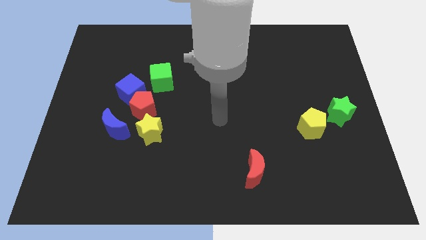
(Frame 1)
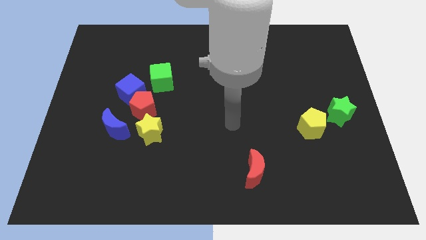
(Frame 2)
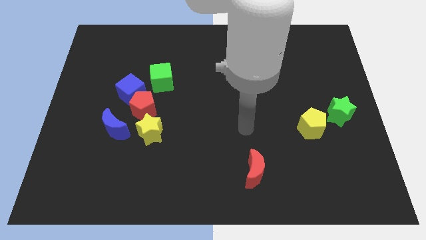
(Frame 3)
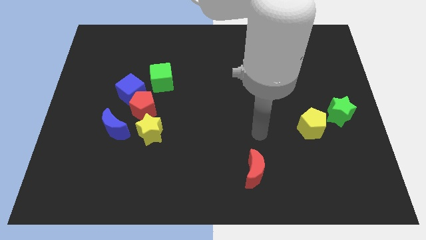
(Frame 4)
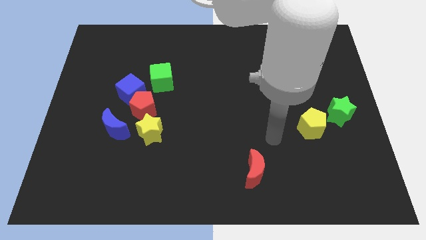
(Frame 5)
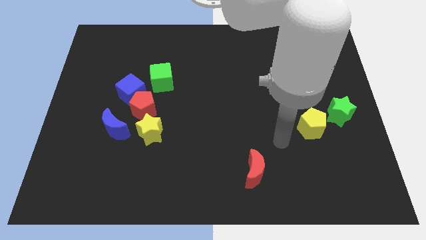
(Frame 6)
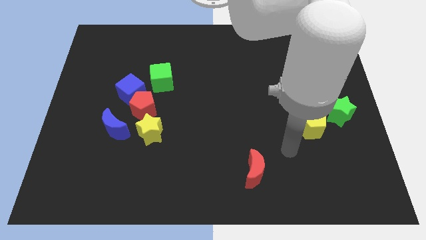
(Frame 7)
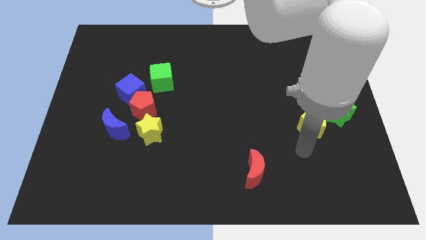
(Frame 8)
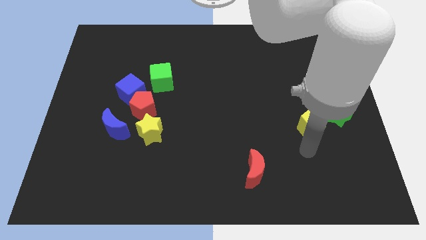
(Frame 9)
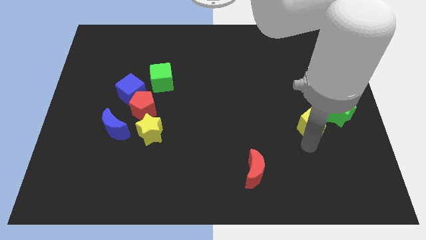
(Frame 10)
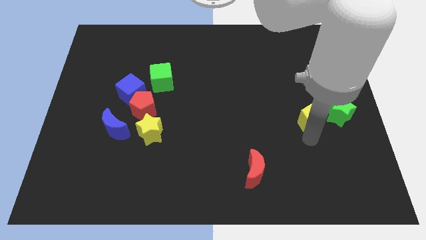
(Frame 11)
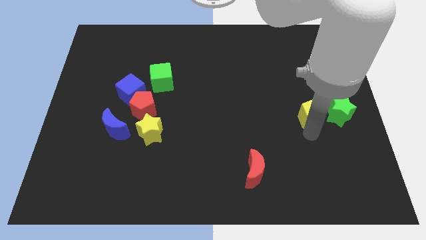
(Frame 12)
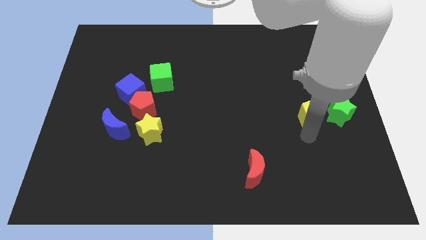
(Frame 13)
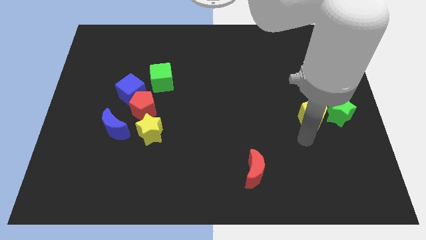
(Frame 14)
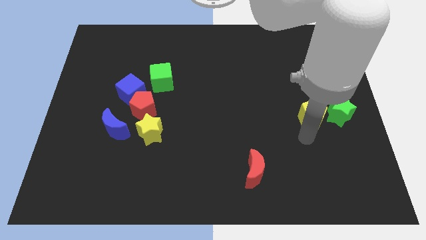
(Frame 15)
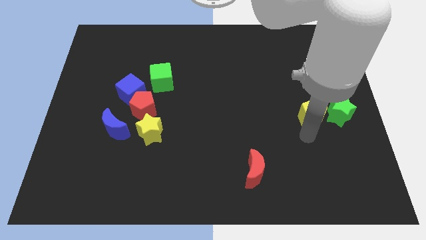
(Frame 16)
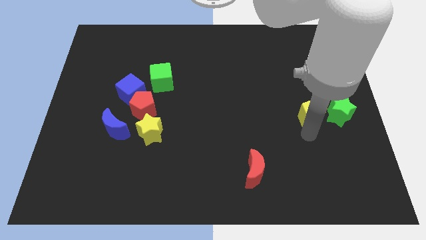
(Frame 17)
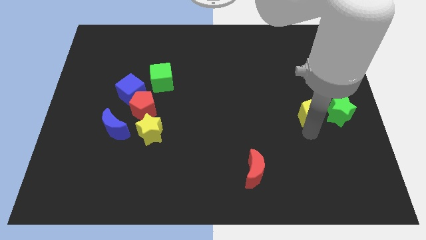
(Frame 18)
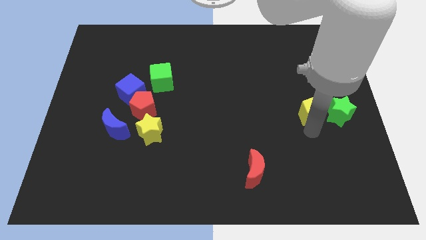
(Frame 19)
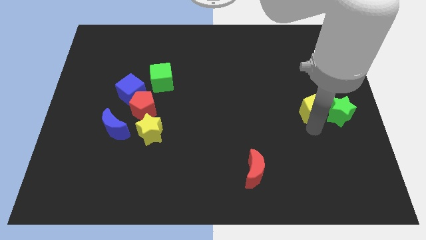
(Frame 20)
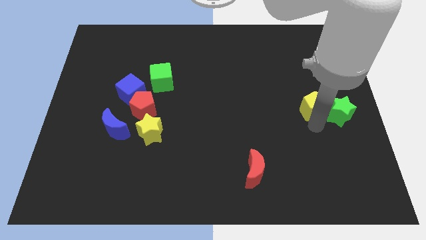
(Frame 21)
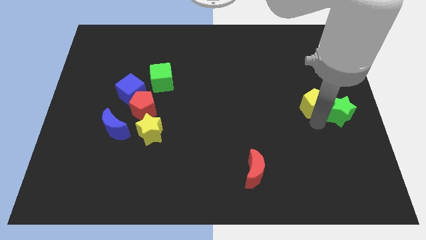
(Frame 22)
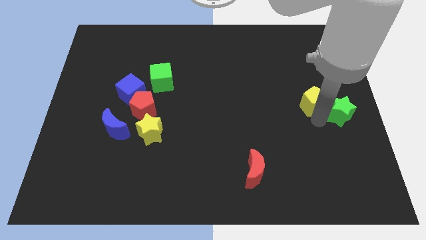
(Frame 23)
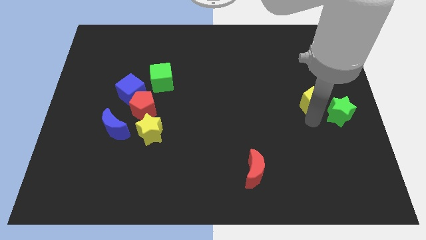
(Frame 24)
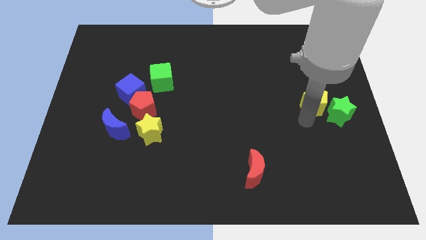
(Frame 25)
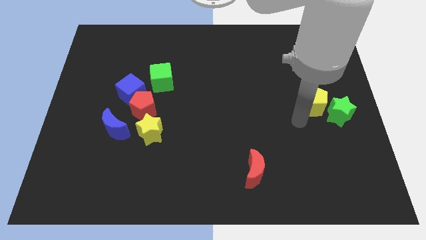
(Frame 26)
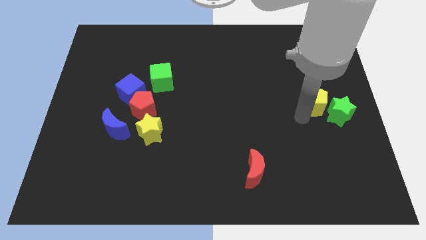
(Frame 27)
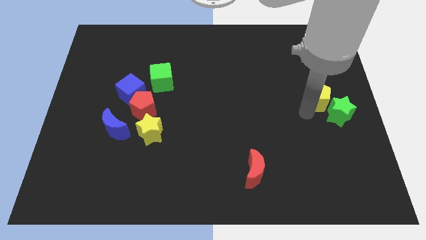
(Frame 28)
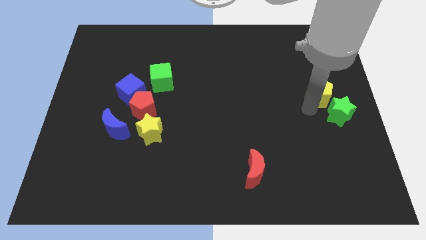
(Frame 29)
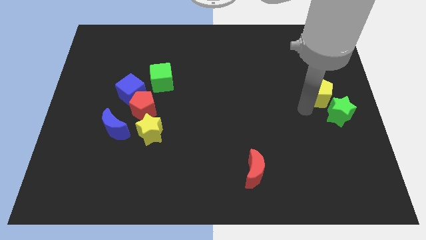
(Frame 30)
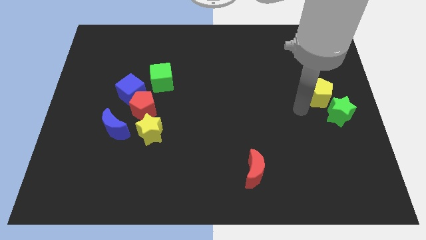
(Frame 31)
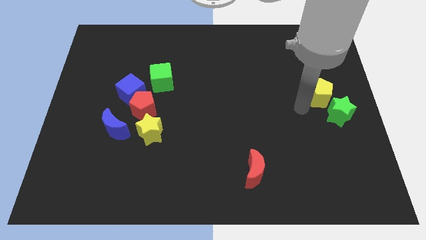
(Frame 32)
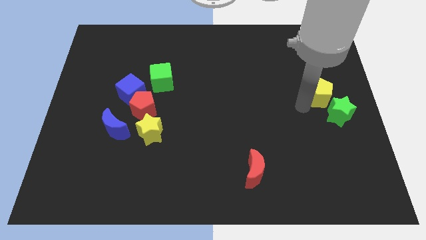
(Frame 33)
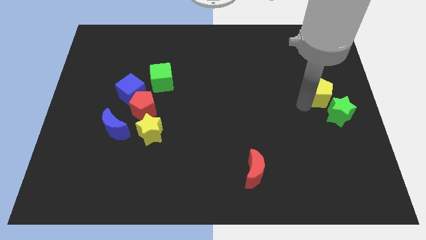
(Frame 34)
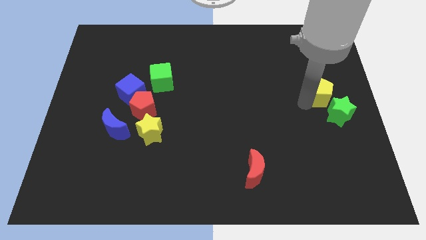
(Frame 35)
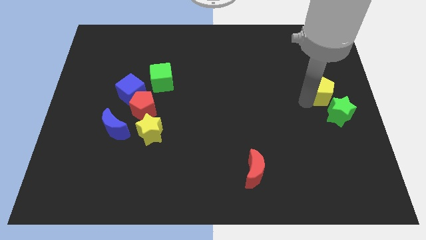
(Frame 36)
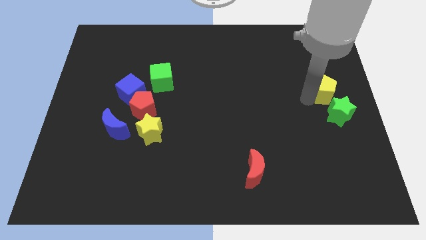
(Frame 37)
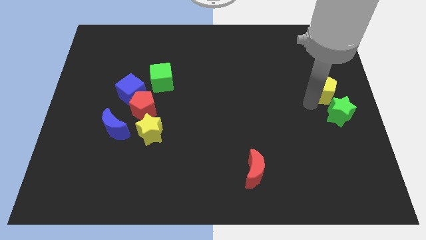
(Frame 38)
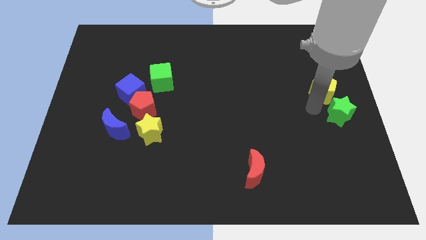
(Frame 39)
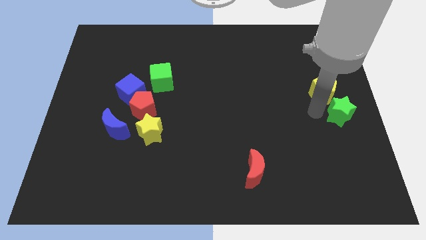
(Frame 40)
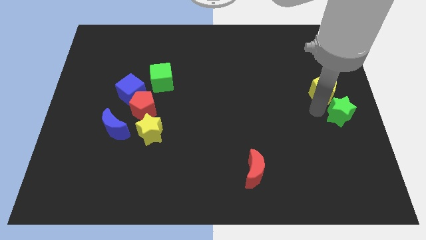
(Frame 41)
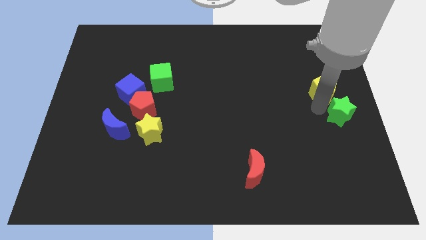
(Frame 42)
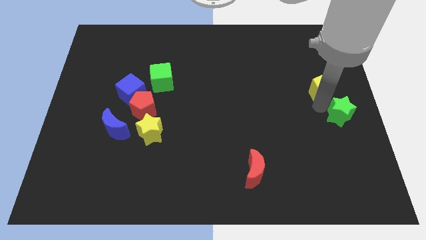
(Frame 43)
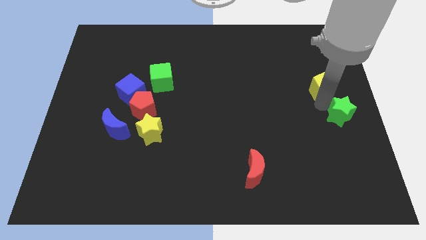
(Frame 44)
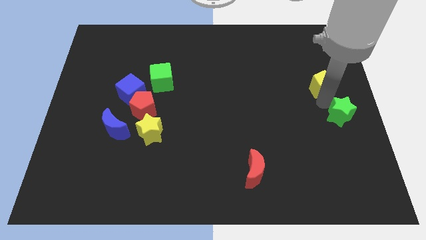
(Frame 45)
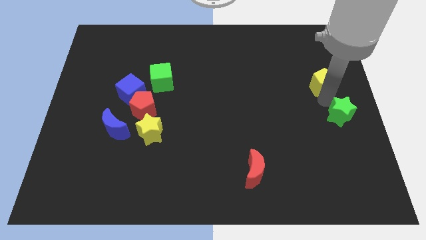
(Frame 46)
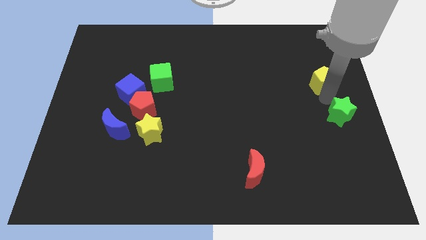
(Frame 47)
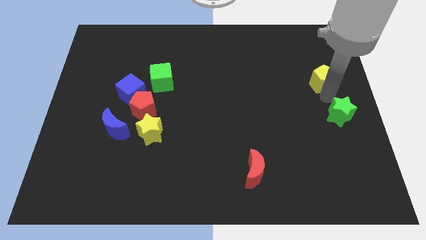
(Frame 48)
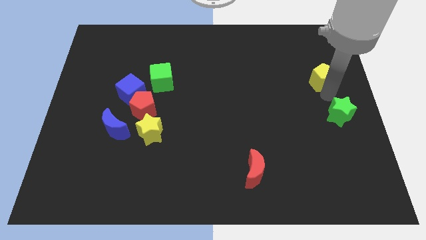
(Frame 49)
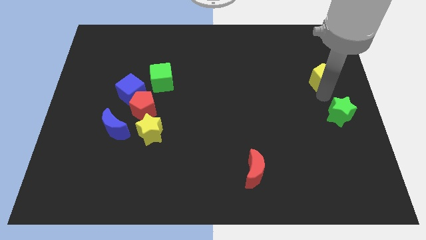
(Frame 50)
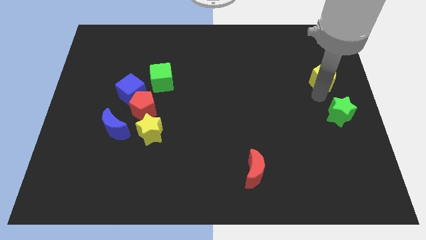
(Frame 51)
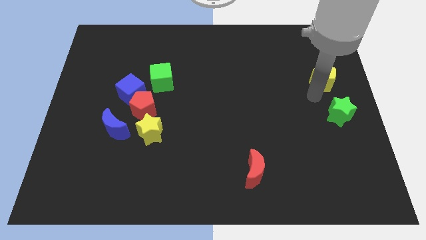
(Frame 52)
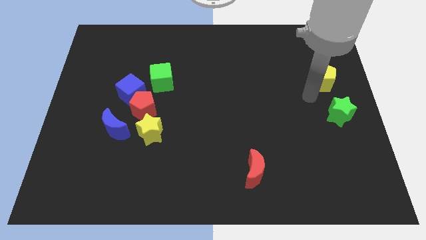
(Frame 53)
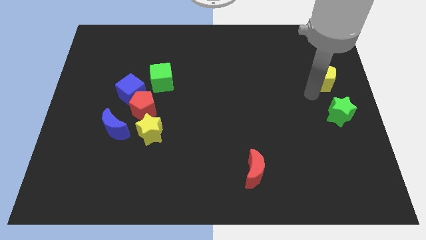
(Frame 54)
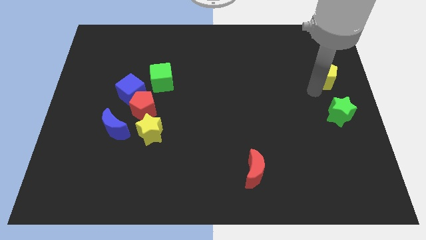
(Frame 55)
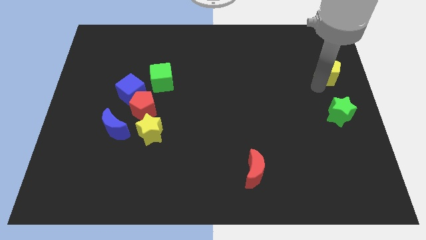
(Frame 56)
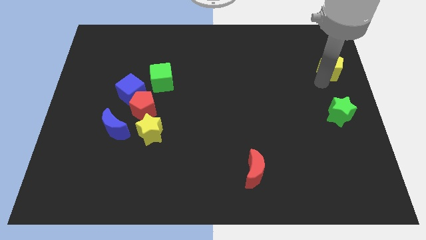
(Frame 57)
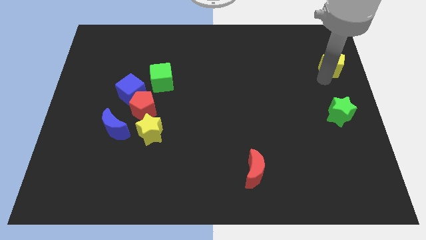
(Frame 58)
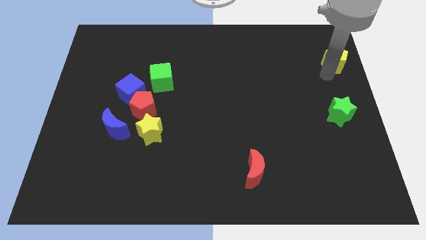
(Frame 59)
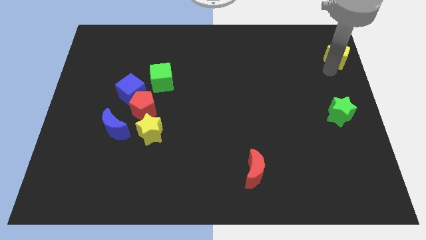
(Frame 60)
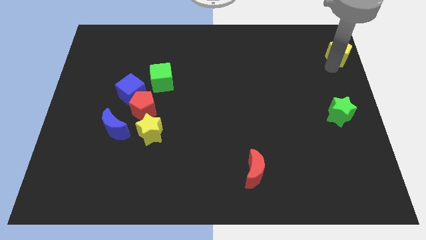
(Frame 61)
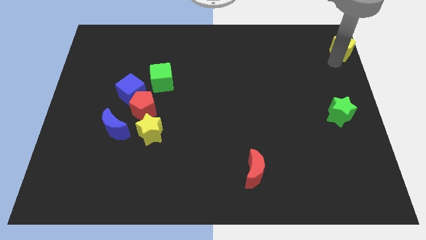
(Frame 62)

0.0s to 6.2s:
put the yellow pentagon to the top right

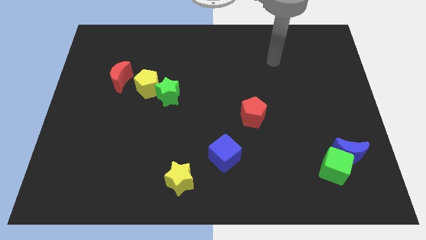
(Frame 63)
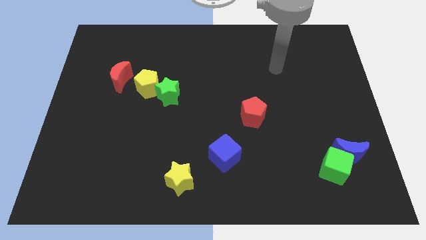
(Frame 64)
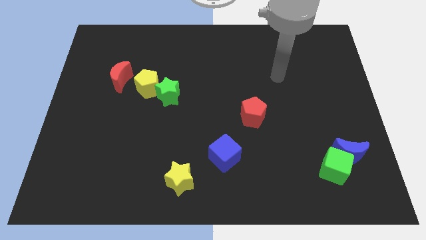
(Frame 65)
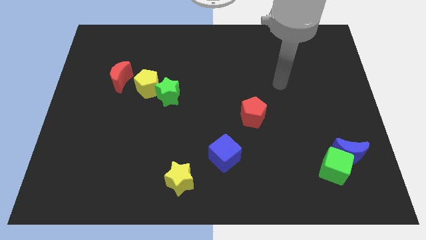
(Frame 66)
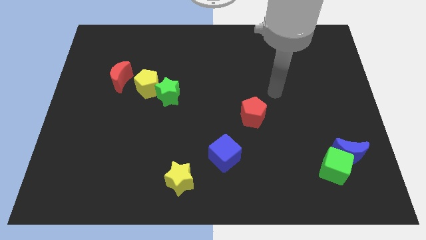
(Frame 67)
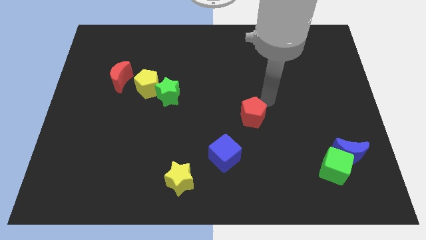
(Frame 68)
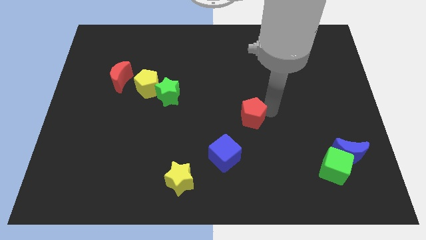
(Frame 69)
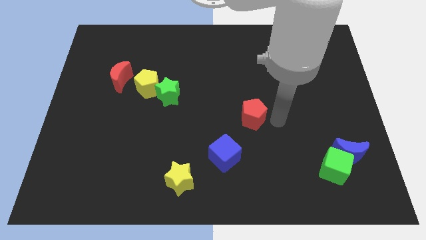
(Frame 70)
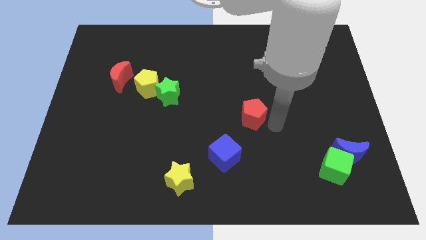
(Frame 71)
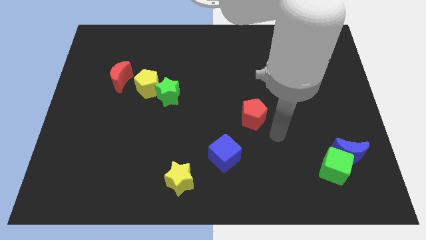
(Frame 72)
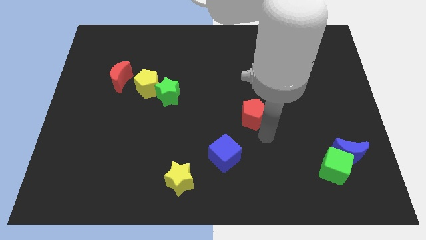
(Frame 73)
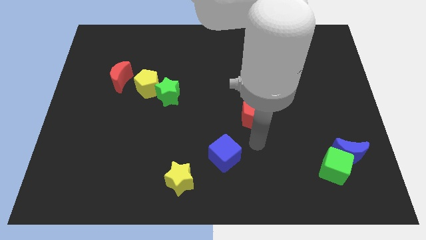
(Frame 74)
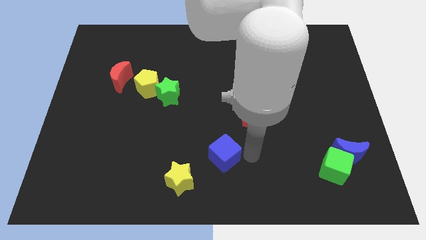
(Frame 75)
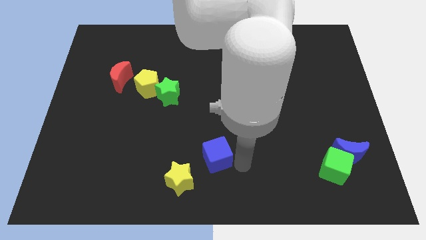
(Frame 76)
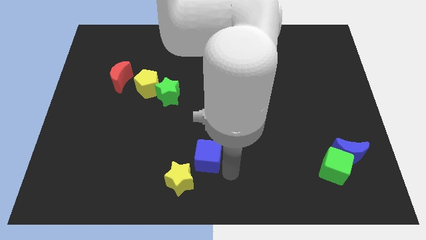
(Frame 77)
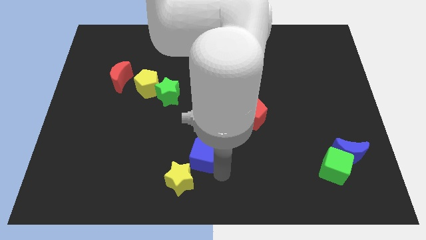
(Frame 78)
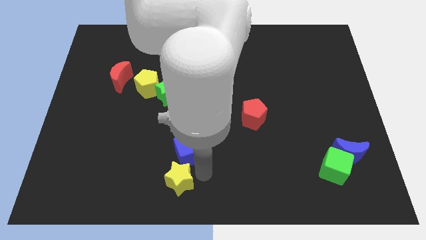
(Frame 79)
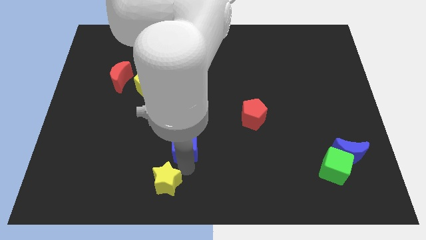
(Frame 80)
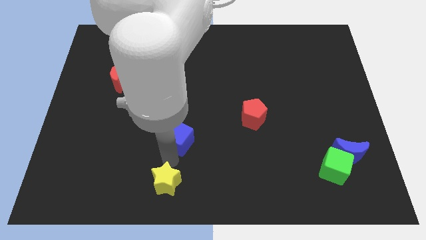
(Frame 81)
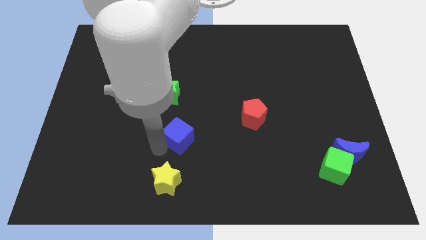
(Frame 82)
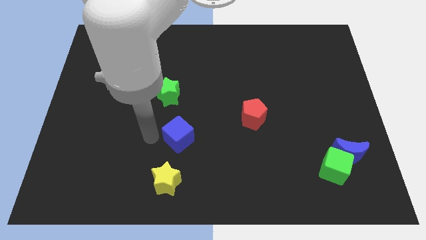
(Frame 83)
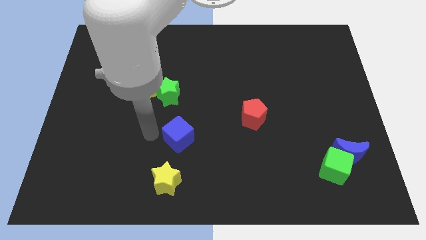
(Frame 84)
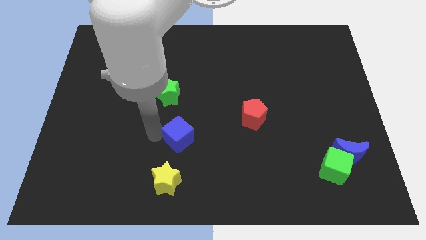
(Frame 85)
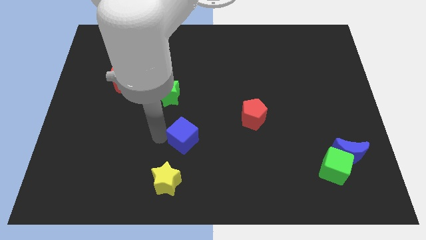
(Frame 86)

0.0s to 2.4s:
push the blue cube to the middle
